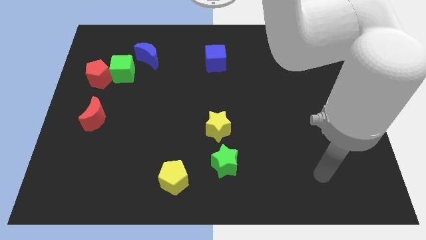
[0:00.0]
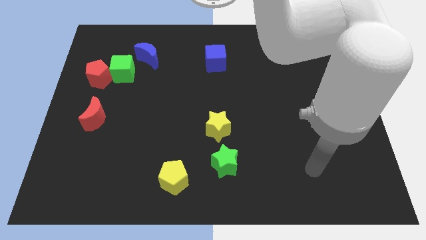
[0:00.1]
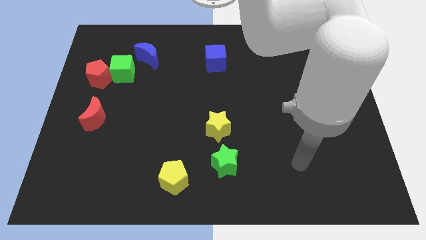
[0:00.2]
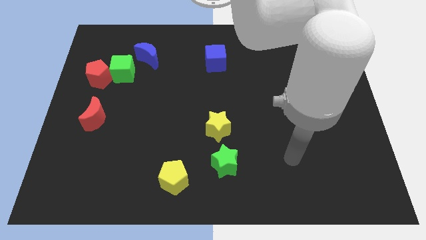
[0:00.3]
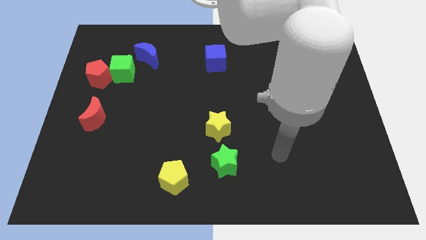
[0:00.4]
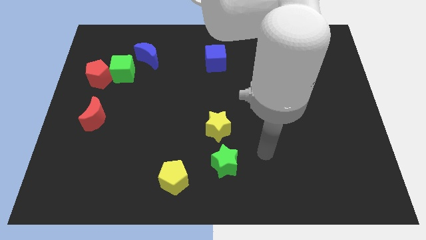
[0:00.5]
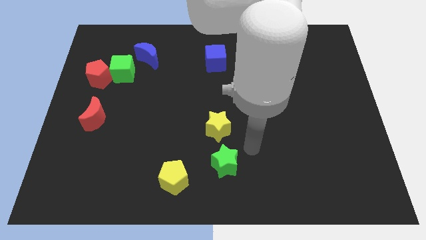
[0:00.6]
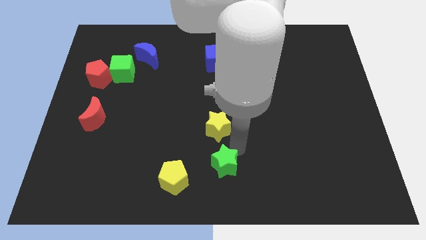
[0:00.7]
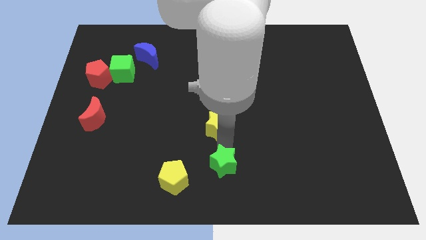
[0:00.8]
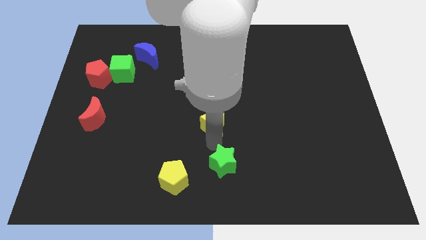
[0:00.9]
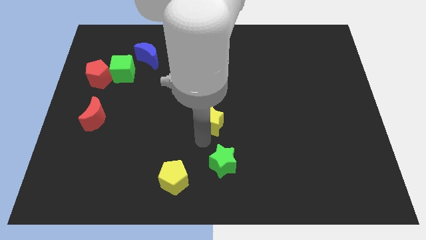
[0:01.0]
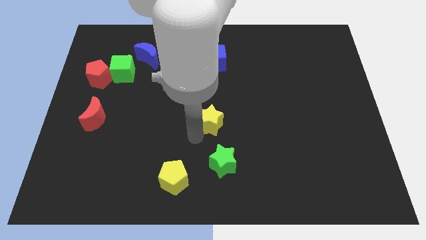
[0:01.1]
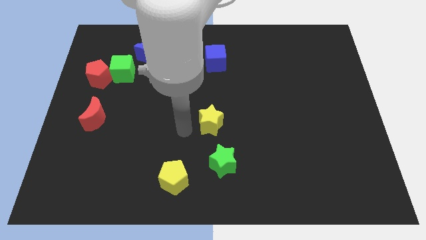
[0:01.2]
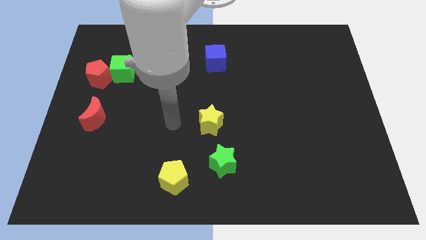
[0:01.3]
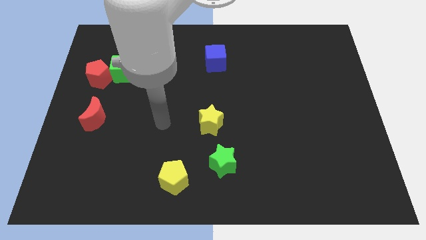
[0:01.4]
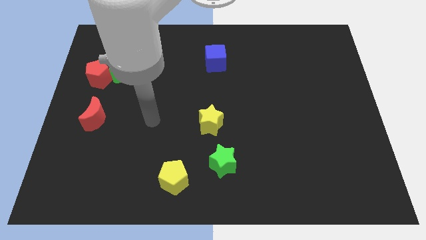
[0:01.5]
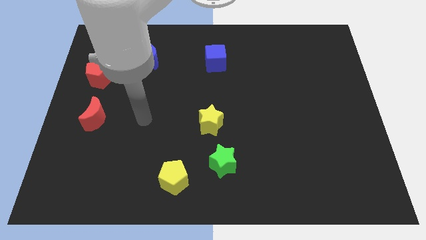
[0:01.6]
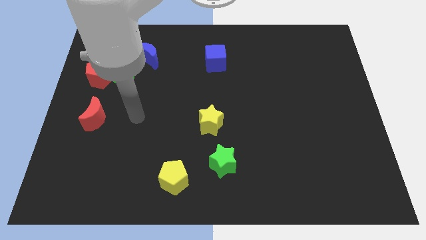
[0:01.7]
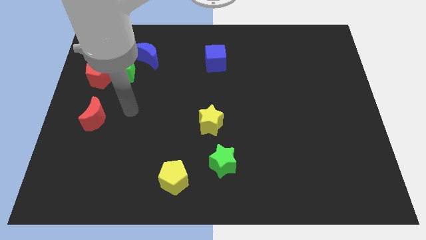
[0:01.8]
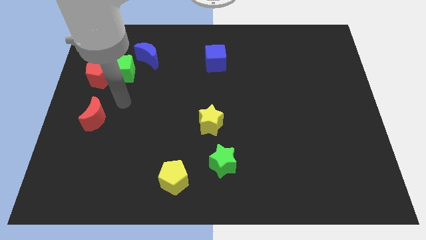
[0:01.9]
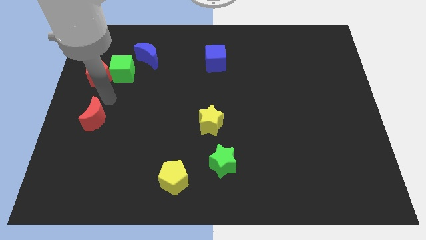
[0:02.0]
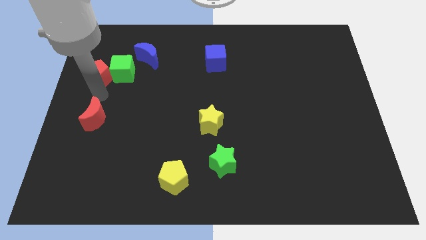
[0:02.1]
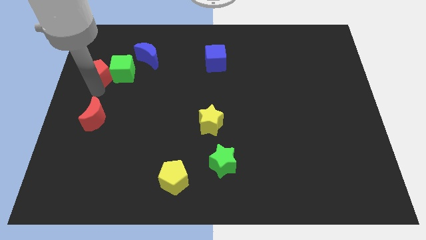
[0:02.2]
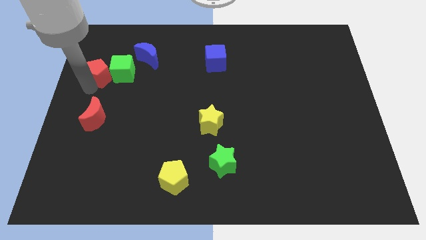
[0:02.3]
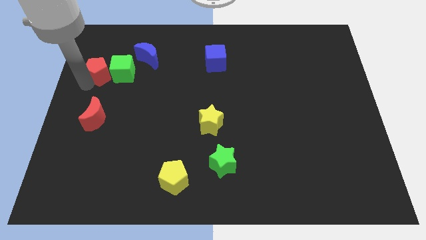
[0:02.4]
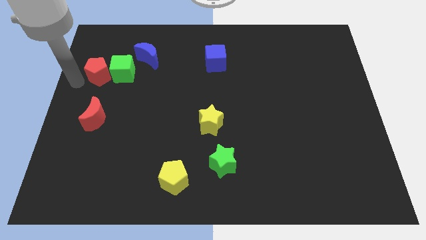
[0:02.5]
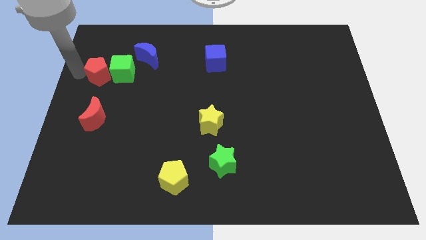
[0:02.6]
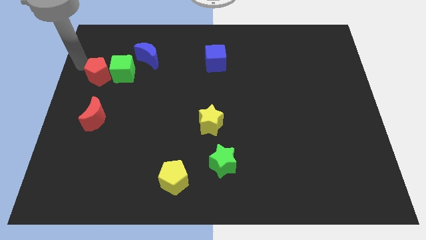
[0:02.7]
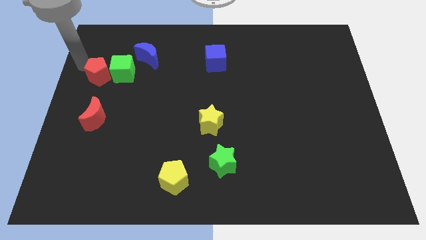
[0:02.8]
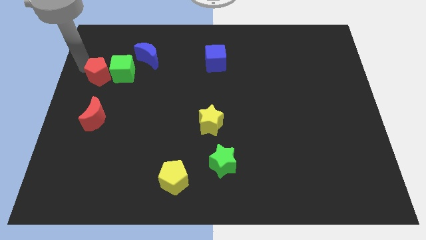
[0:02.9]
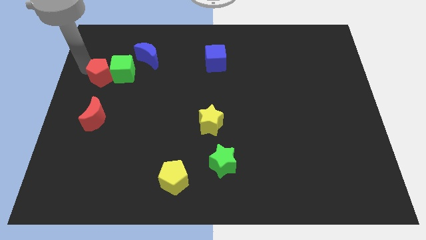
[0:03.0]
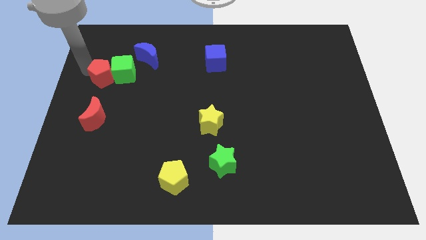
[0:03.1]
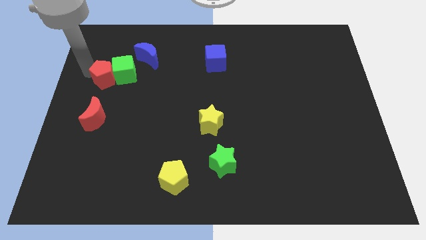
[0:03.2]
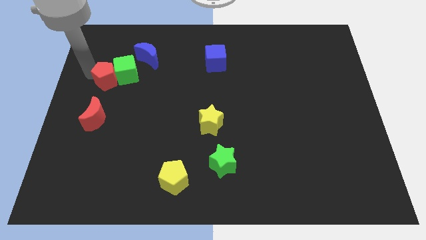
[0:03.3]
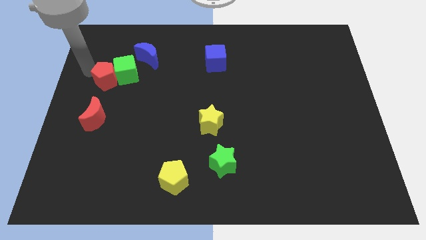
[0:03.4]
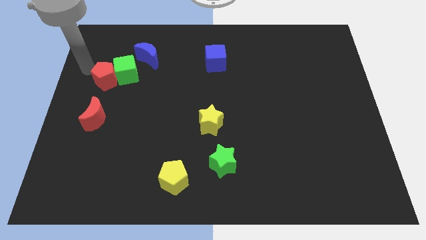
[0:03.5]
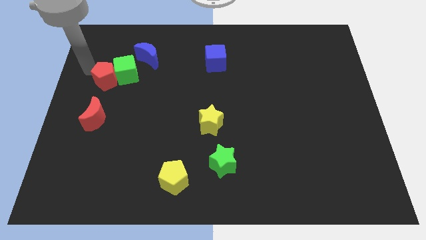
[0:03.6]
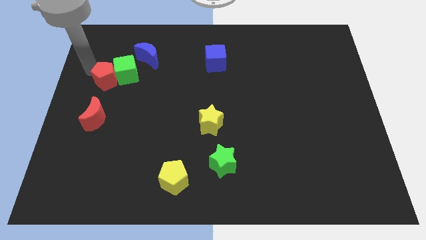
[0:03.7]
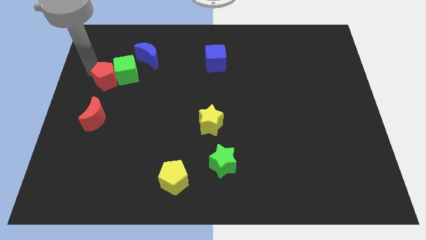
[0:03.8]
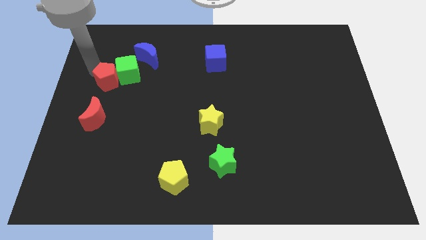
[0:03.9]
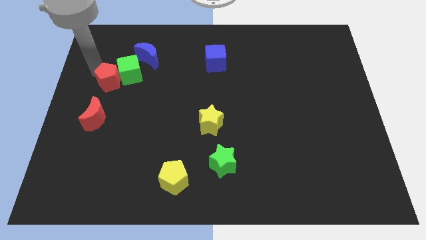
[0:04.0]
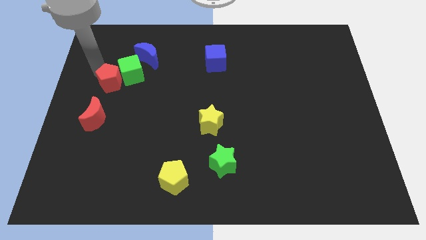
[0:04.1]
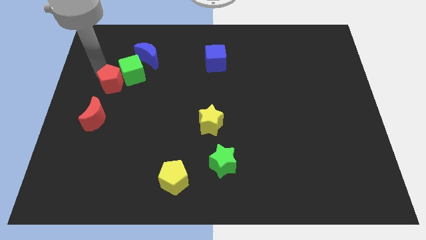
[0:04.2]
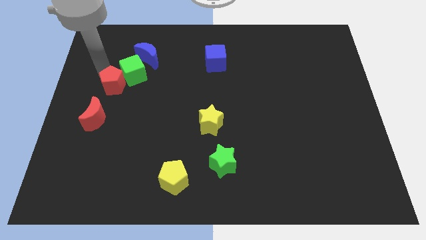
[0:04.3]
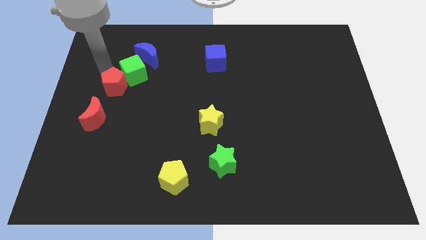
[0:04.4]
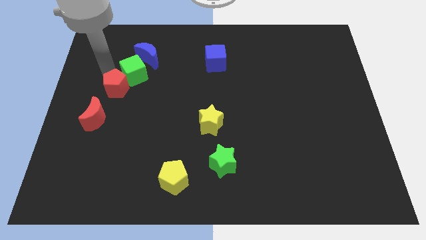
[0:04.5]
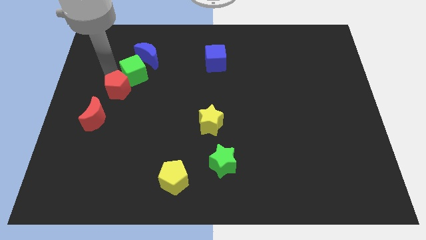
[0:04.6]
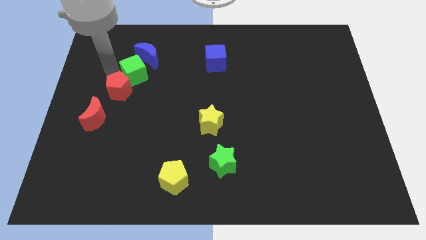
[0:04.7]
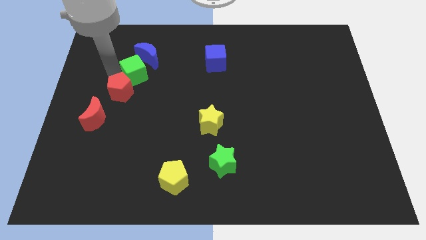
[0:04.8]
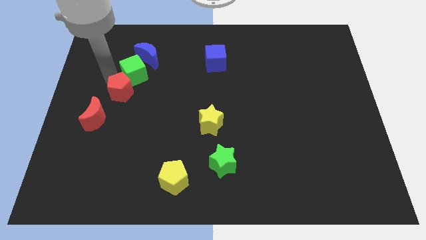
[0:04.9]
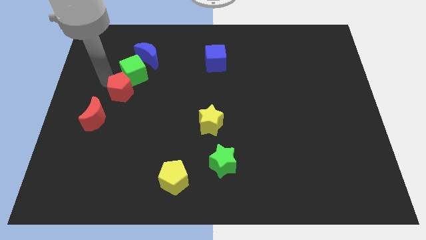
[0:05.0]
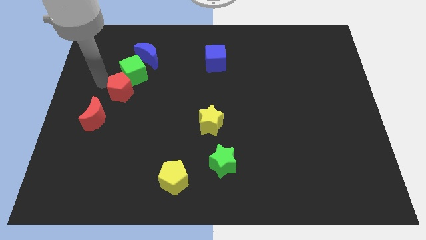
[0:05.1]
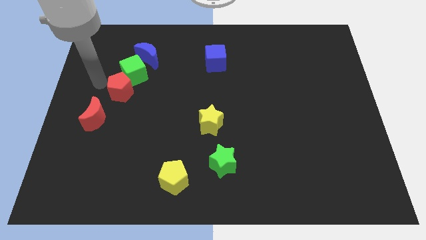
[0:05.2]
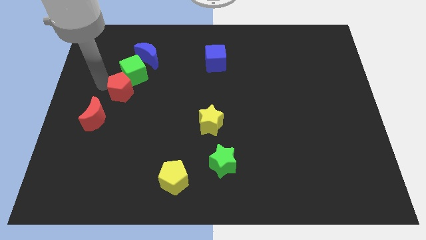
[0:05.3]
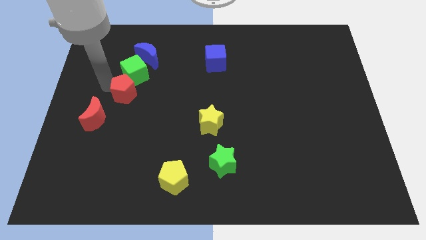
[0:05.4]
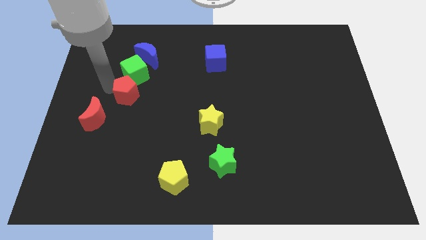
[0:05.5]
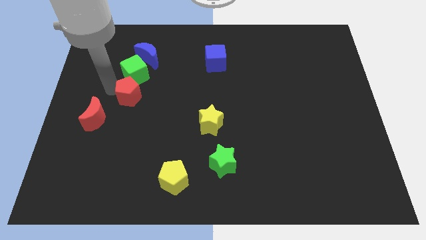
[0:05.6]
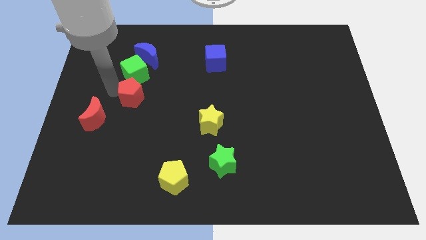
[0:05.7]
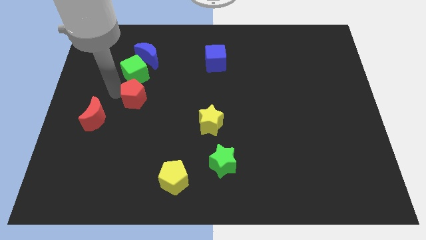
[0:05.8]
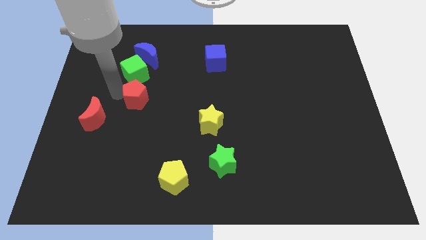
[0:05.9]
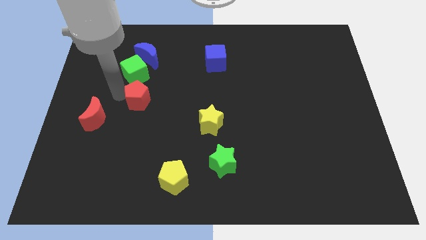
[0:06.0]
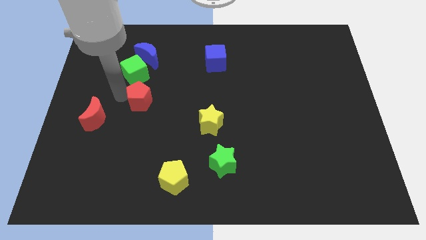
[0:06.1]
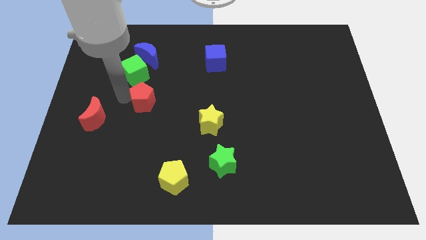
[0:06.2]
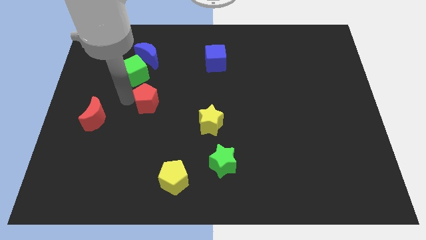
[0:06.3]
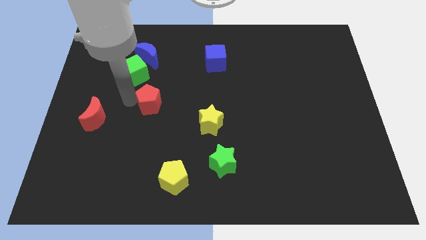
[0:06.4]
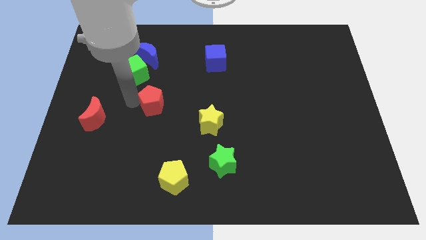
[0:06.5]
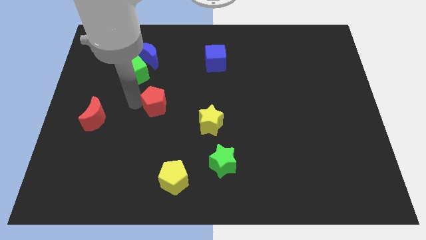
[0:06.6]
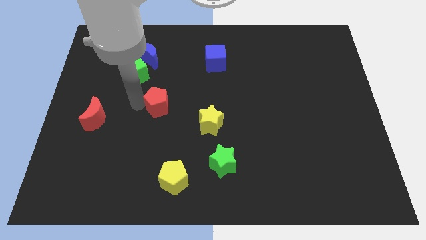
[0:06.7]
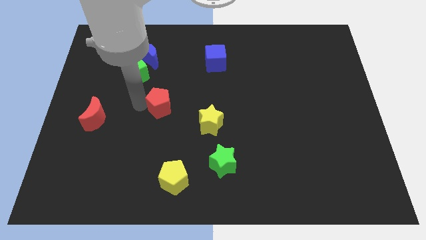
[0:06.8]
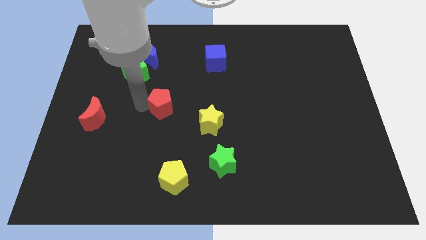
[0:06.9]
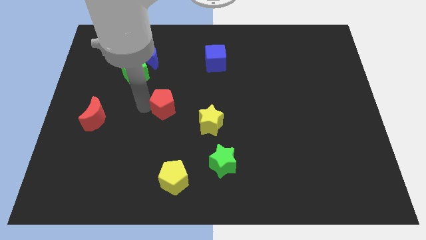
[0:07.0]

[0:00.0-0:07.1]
move the red pentagon diagonally up and to the left of the yellow star

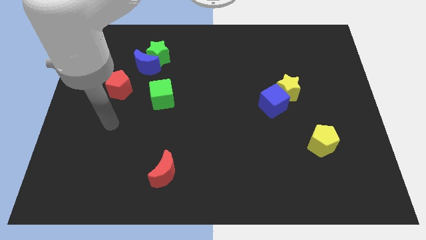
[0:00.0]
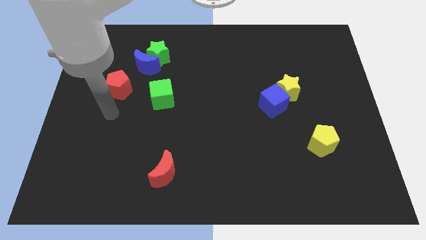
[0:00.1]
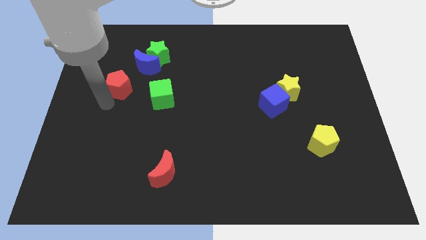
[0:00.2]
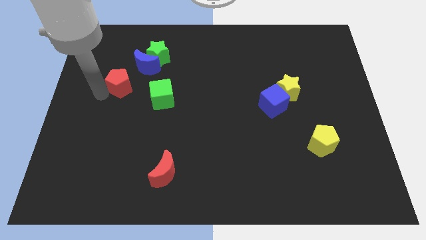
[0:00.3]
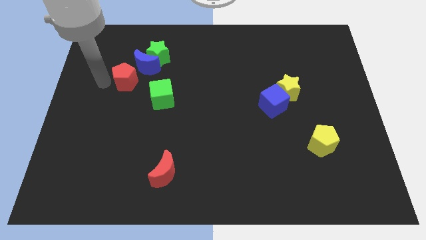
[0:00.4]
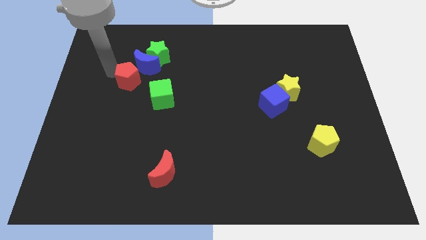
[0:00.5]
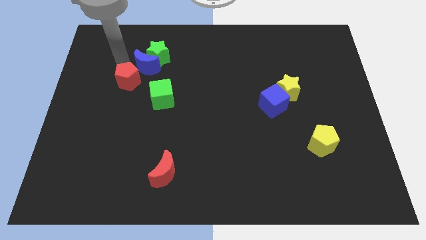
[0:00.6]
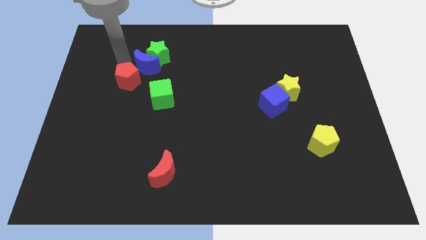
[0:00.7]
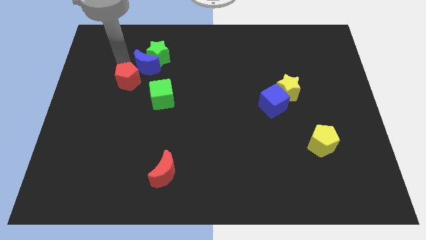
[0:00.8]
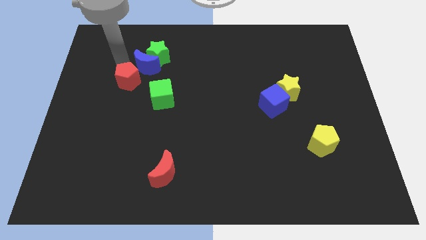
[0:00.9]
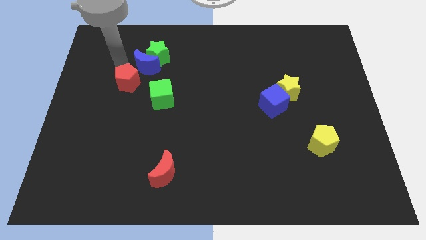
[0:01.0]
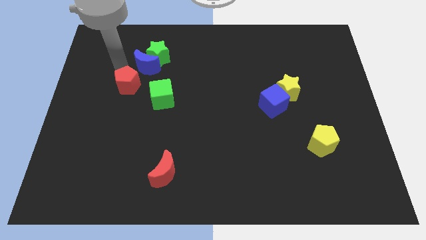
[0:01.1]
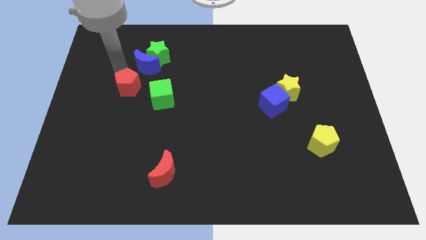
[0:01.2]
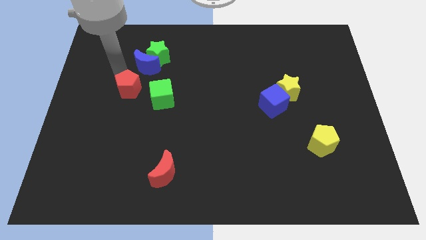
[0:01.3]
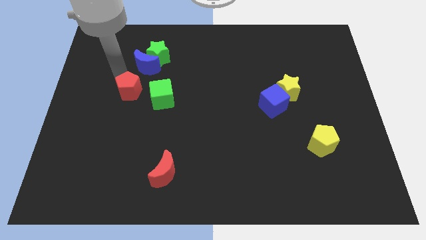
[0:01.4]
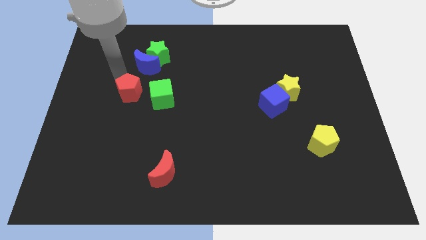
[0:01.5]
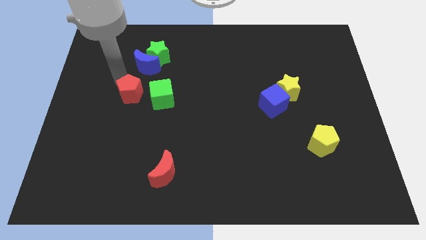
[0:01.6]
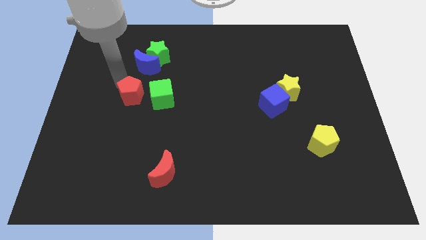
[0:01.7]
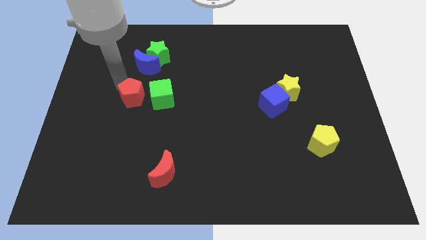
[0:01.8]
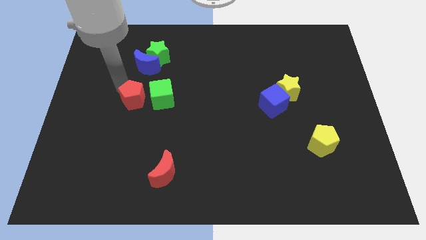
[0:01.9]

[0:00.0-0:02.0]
move the red pentagon to the bottom left side of the green cube
